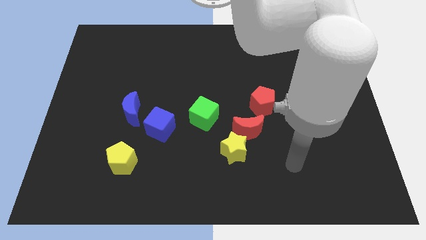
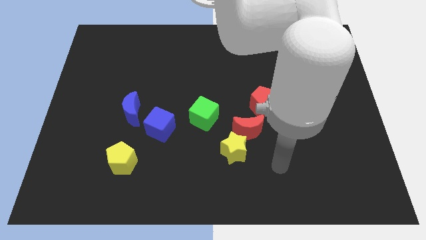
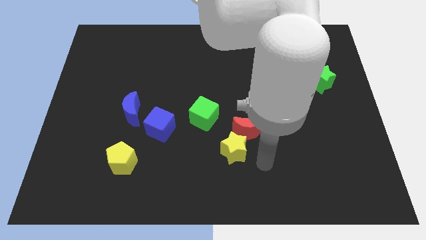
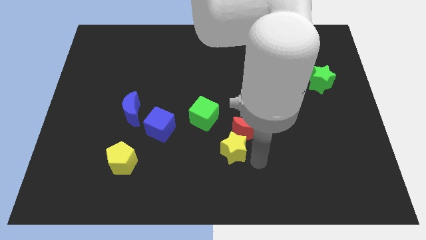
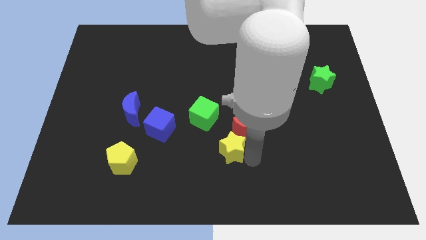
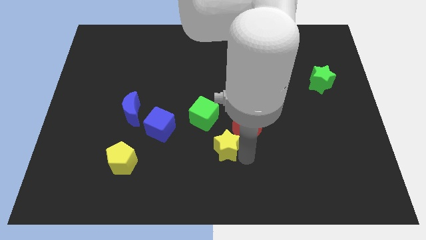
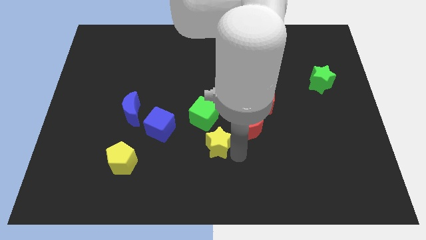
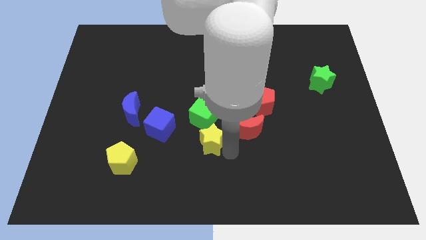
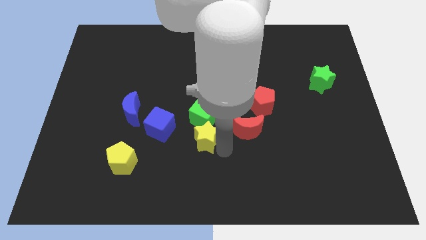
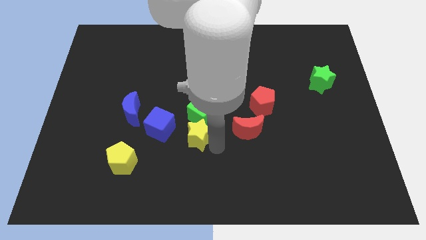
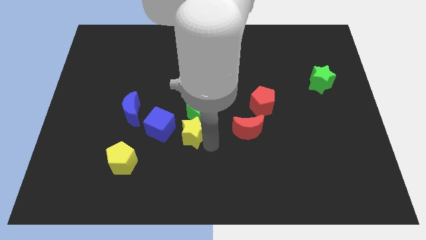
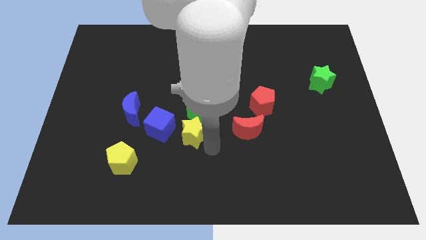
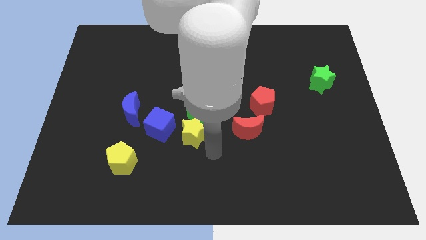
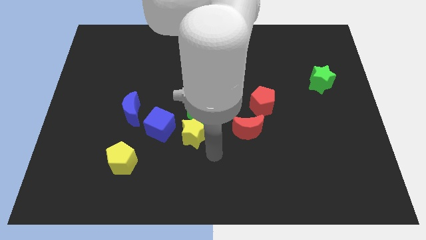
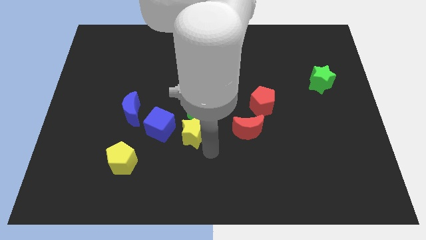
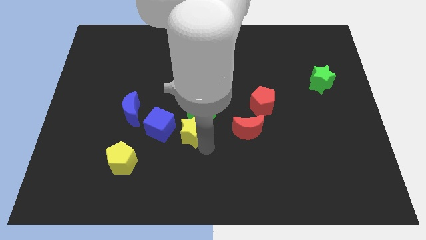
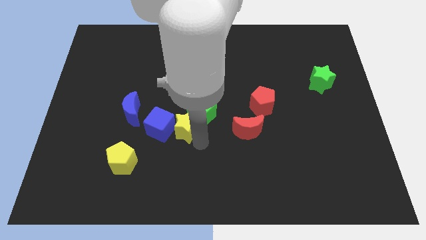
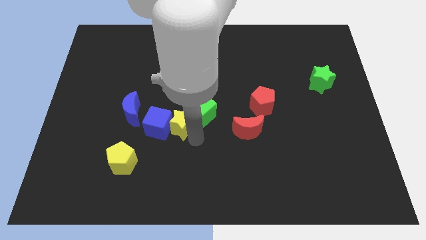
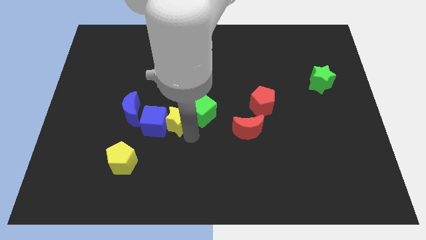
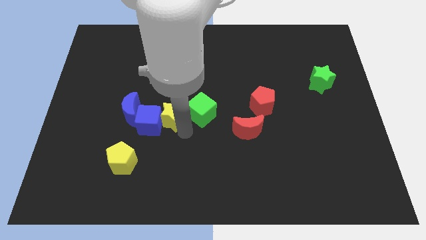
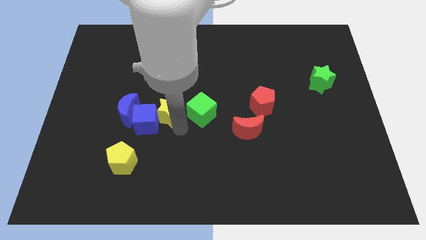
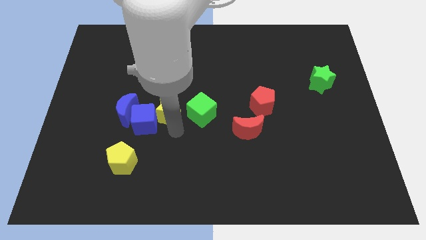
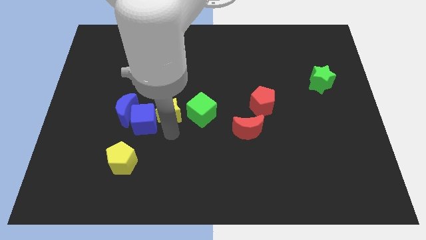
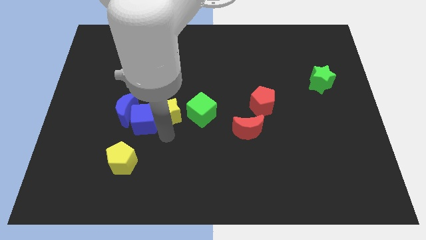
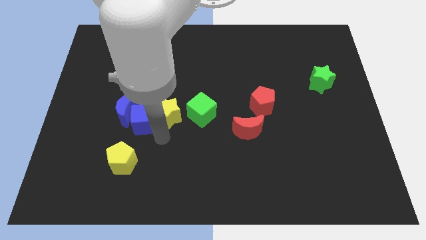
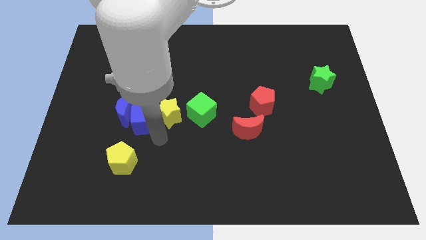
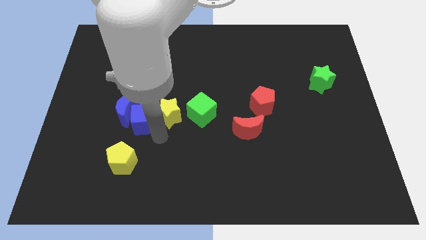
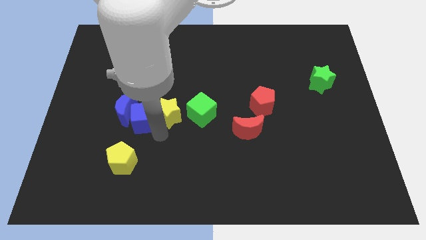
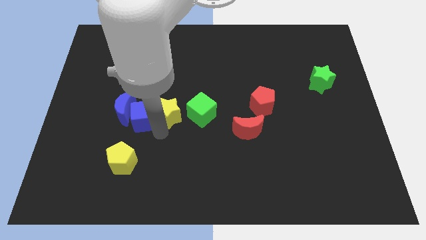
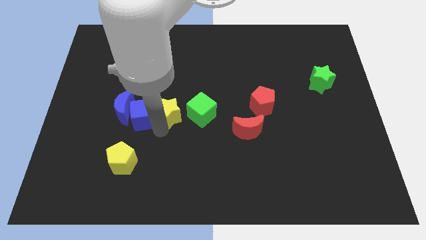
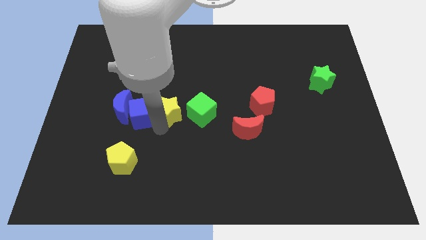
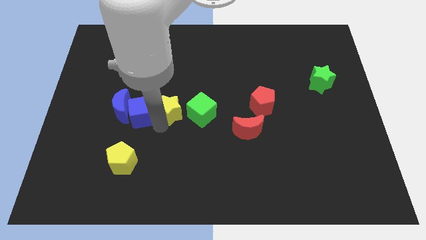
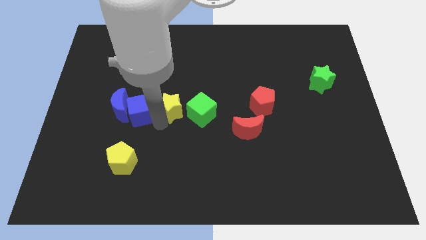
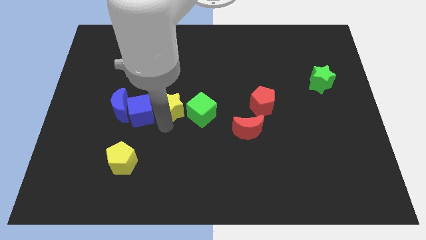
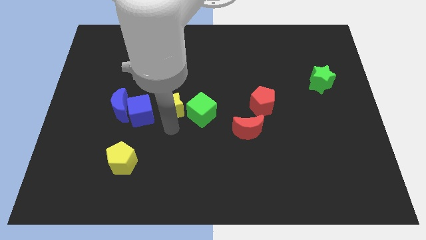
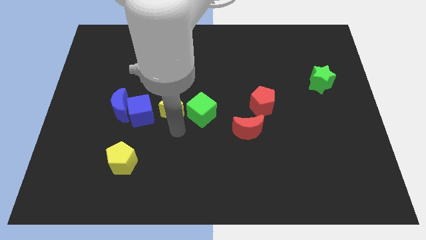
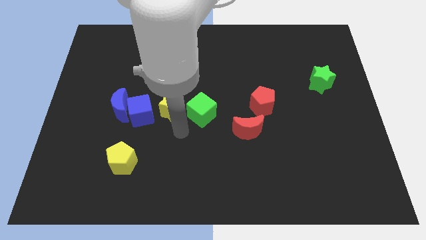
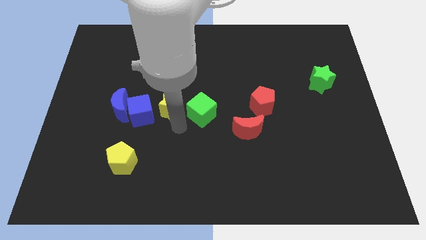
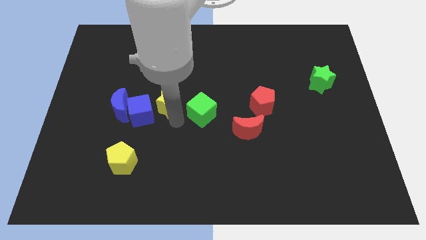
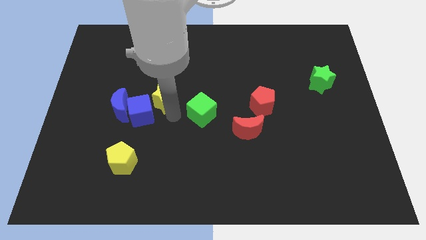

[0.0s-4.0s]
move the yellow star up and then to the left

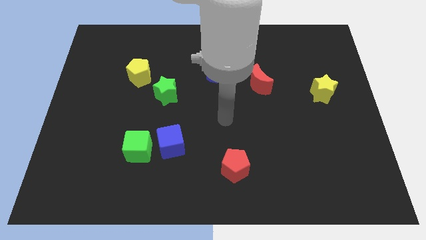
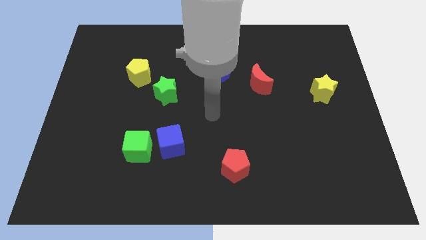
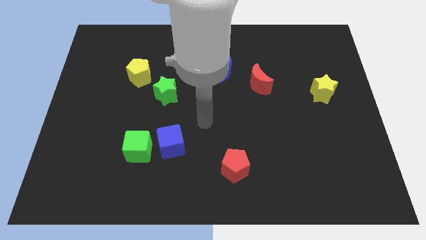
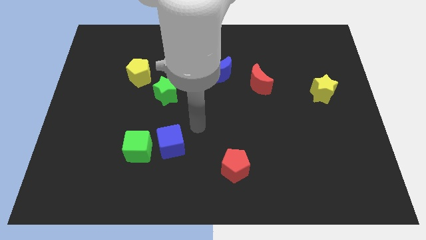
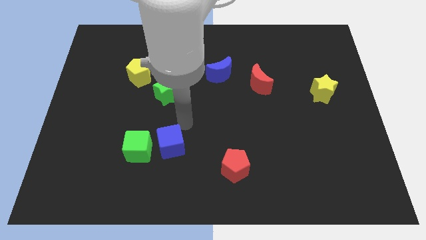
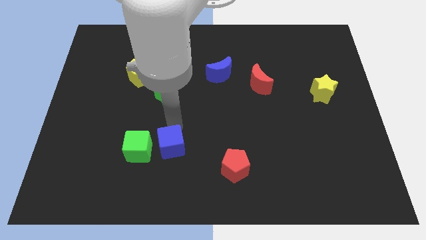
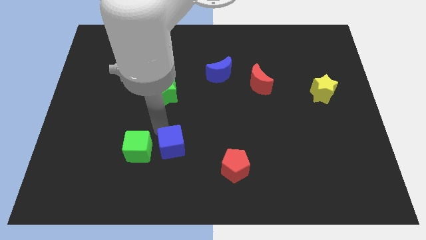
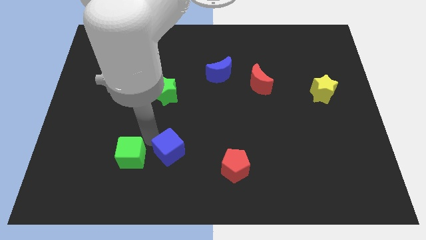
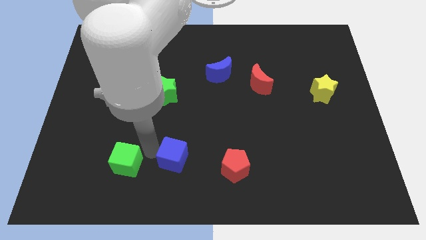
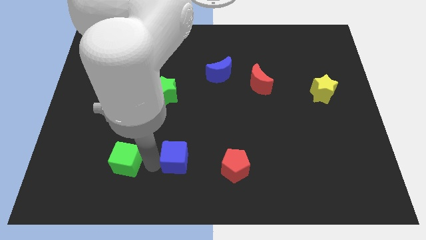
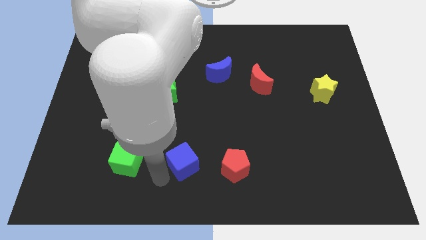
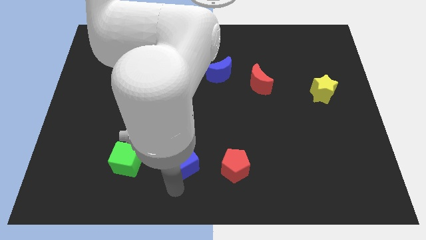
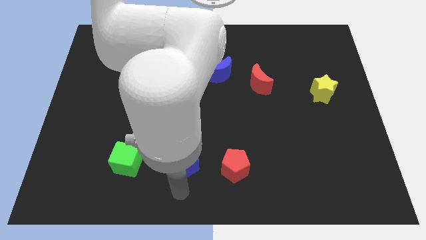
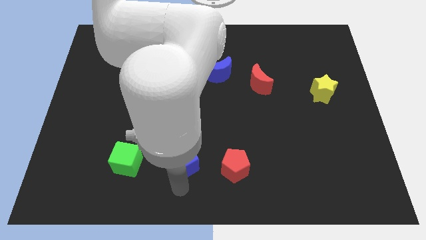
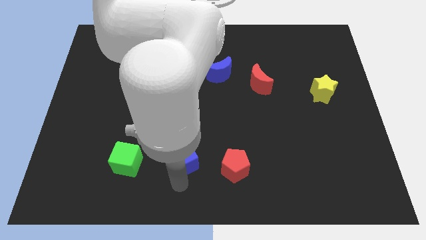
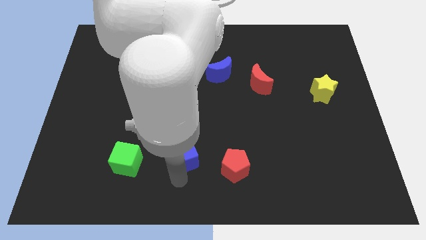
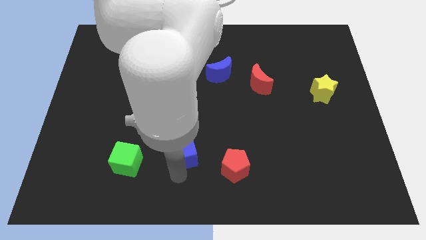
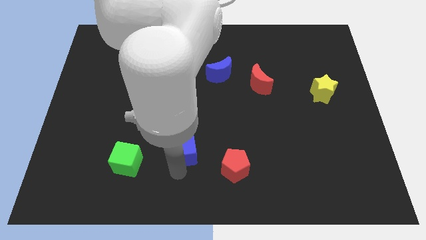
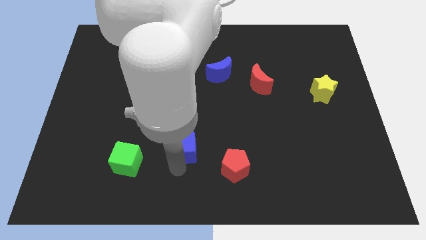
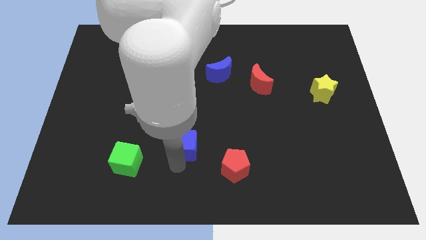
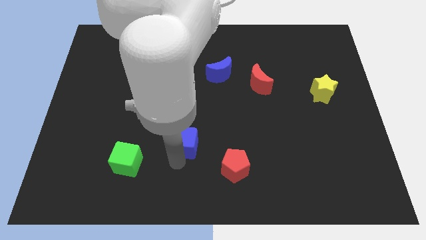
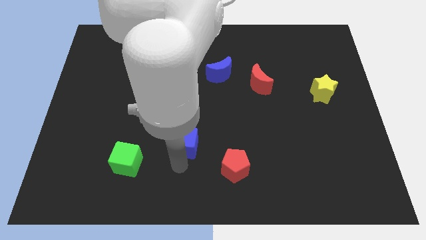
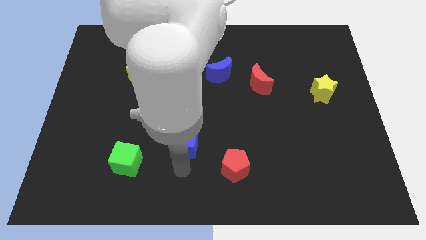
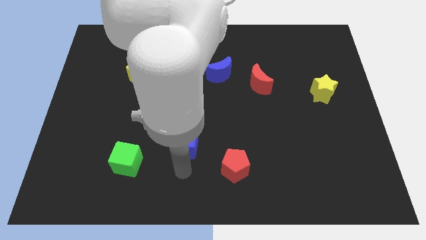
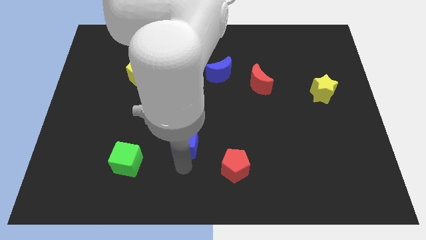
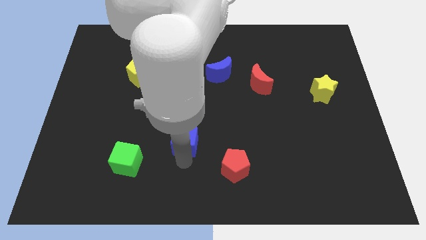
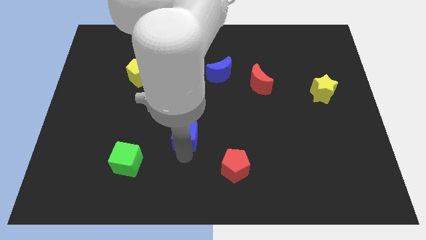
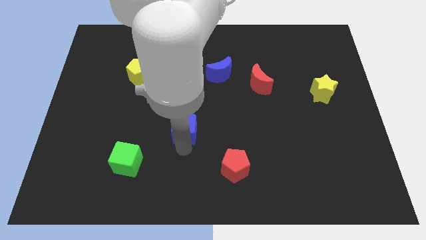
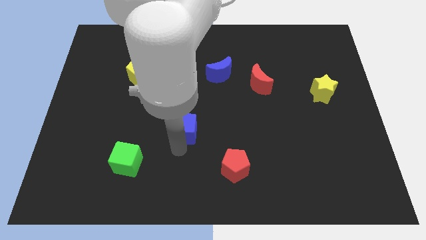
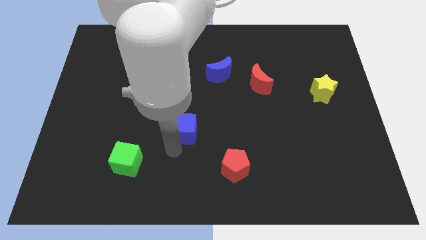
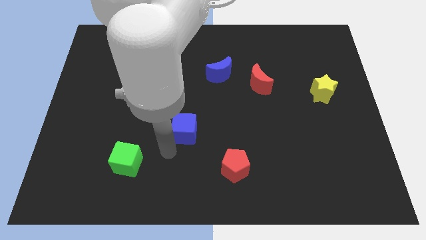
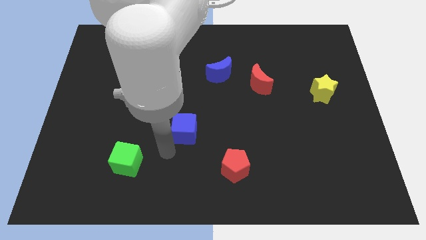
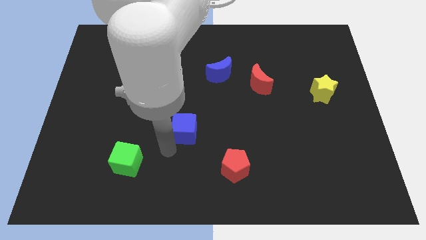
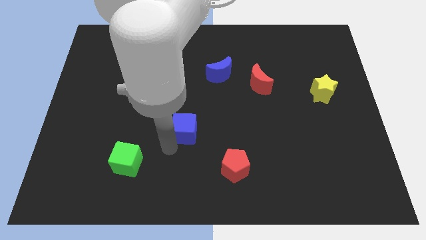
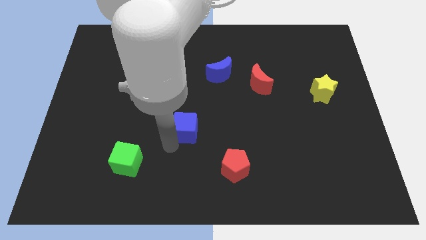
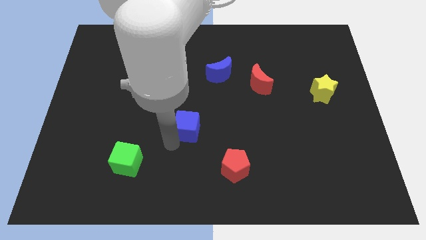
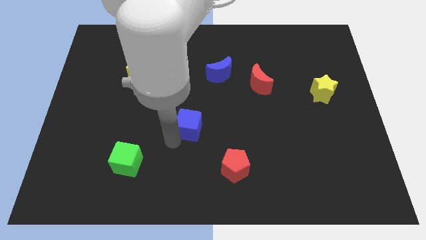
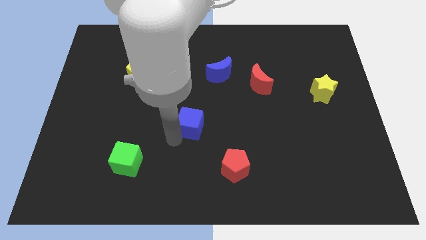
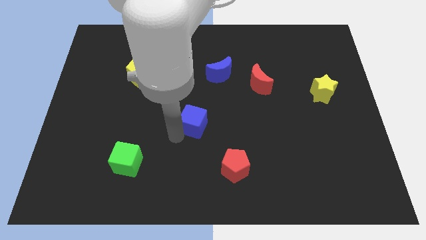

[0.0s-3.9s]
move the blue cube upwards and then to the right a bit
